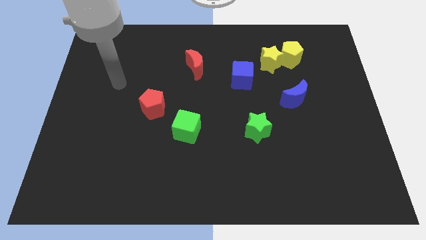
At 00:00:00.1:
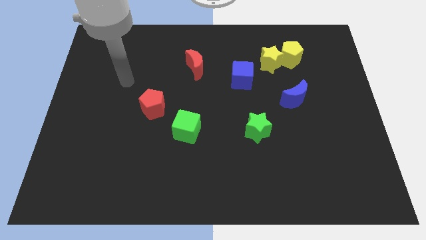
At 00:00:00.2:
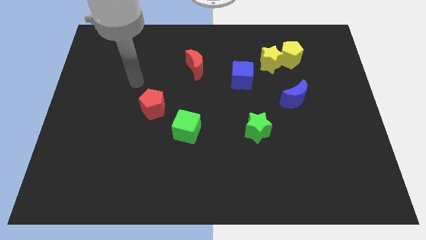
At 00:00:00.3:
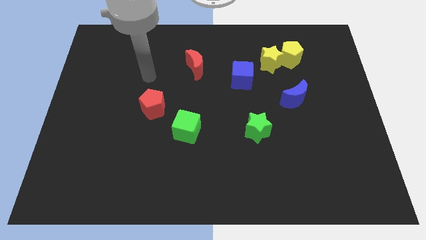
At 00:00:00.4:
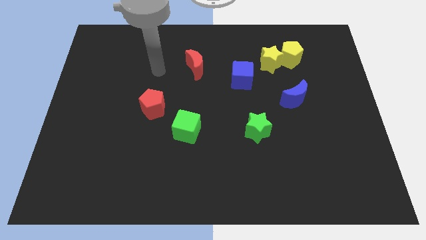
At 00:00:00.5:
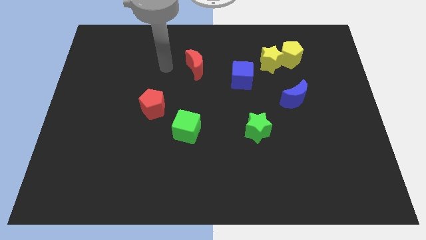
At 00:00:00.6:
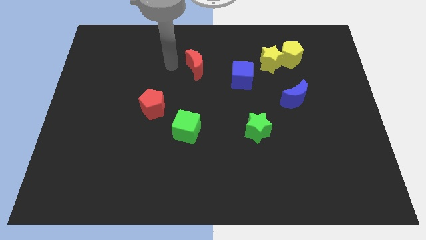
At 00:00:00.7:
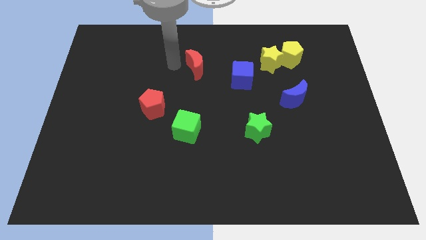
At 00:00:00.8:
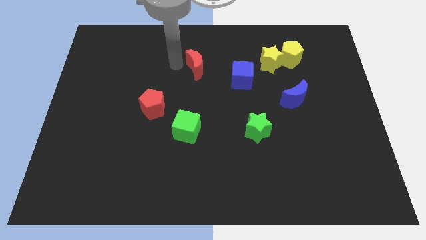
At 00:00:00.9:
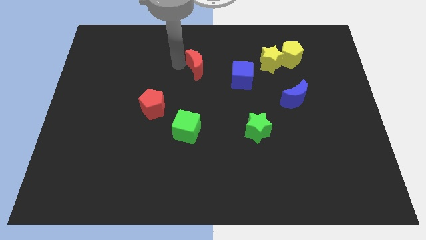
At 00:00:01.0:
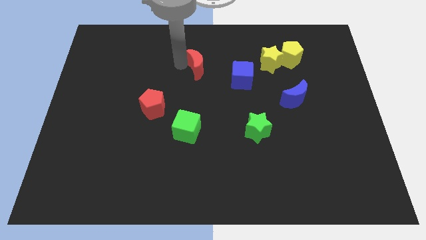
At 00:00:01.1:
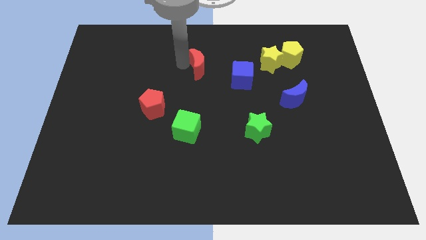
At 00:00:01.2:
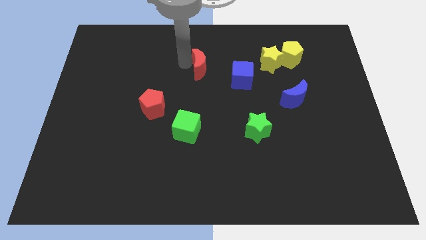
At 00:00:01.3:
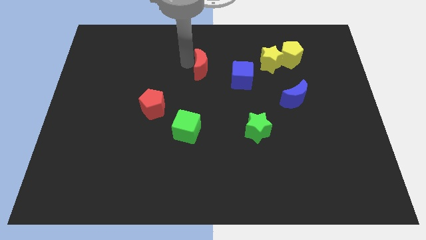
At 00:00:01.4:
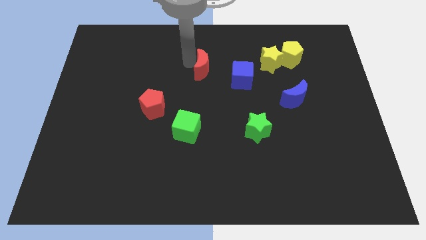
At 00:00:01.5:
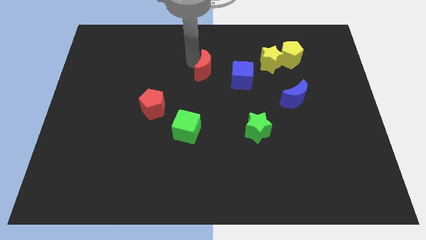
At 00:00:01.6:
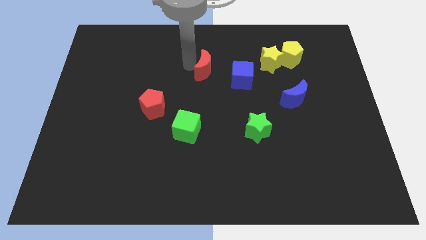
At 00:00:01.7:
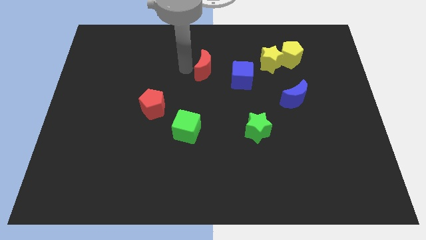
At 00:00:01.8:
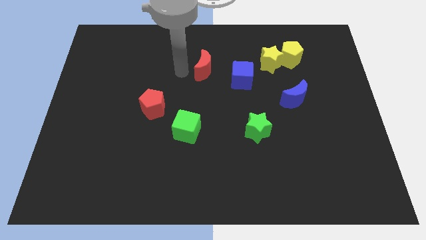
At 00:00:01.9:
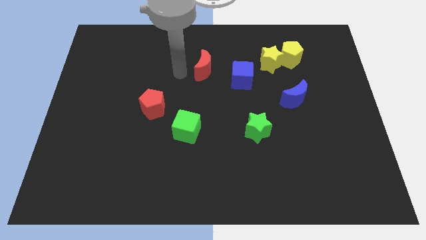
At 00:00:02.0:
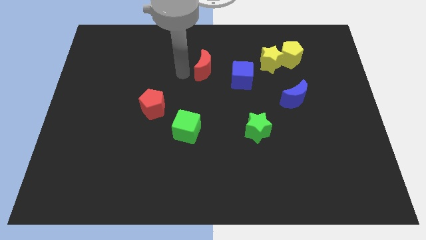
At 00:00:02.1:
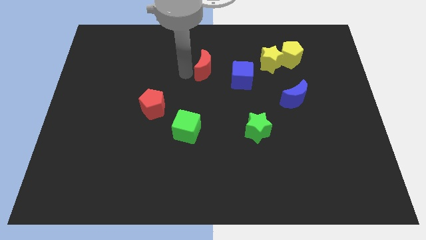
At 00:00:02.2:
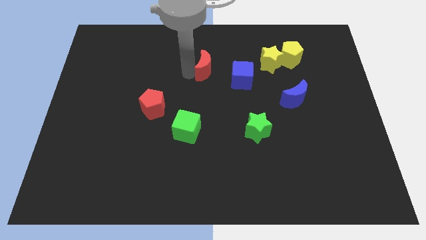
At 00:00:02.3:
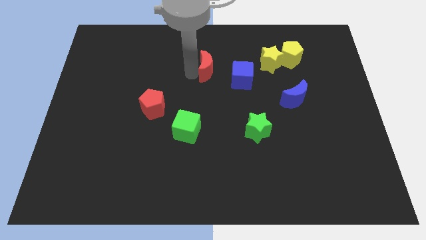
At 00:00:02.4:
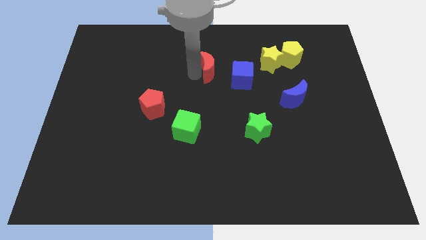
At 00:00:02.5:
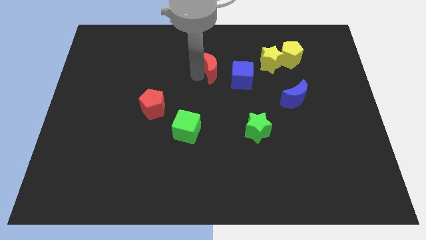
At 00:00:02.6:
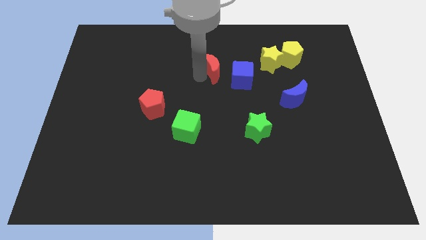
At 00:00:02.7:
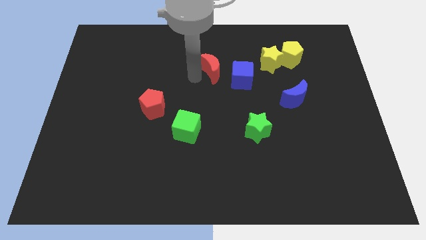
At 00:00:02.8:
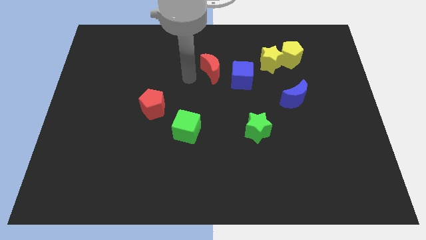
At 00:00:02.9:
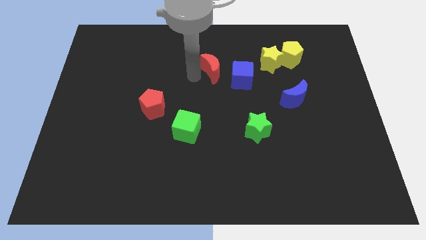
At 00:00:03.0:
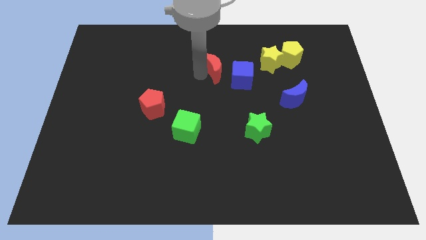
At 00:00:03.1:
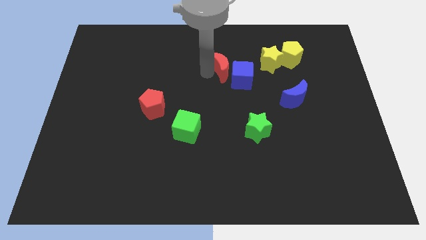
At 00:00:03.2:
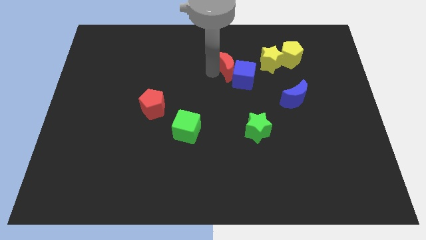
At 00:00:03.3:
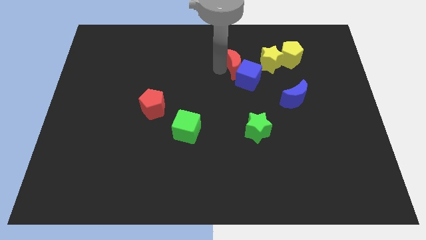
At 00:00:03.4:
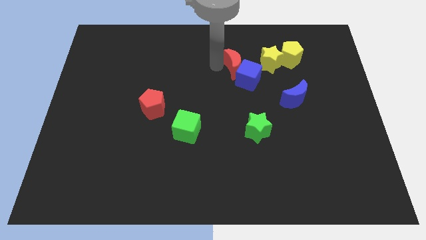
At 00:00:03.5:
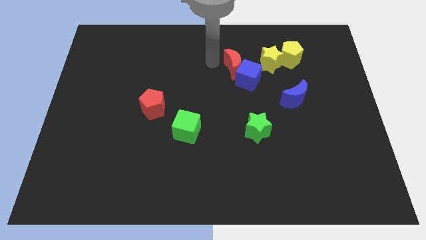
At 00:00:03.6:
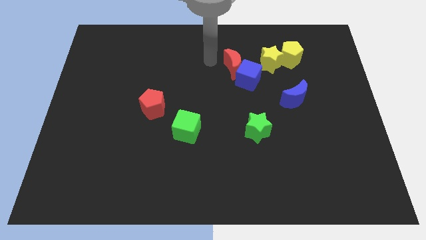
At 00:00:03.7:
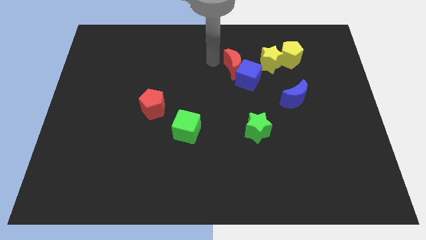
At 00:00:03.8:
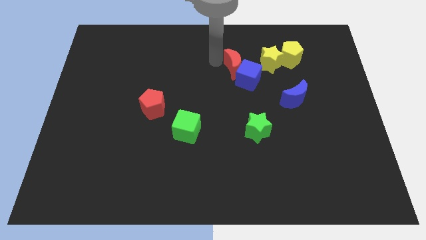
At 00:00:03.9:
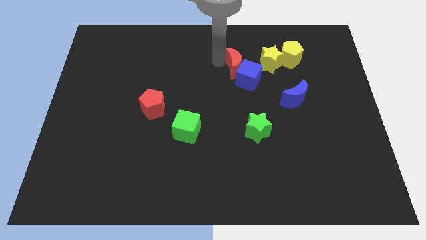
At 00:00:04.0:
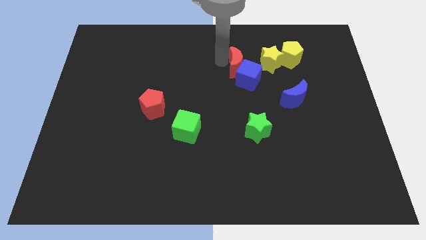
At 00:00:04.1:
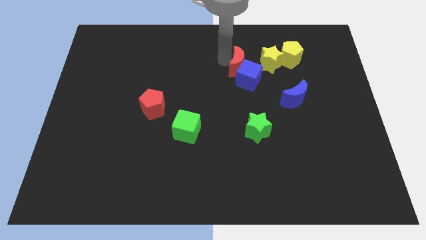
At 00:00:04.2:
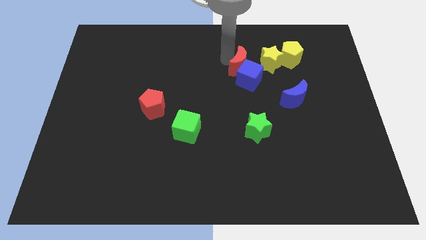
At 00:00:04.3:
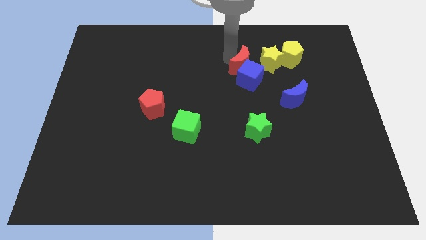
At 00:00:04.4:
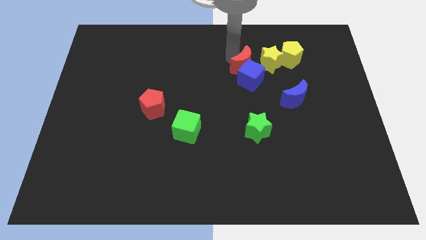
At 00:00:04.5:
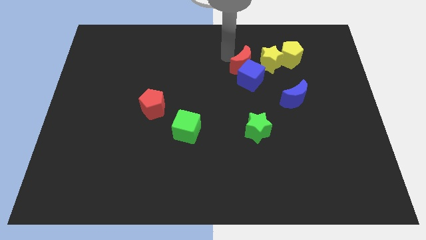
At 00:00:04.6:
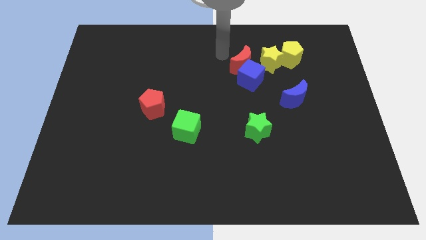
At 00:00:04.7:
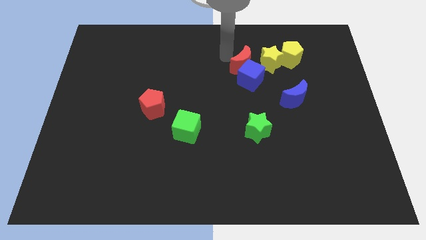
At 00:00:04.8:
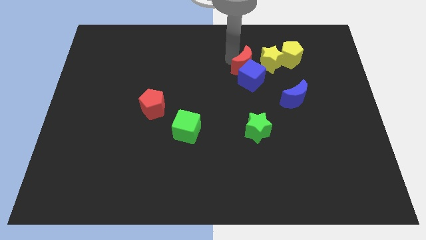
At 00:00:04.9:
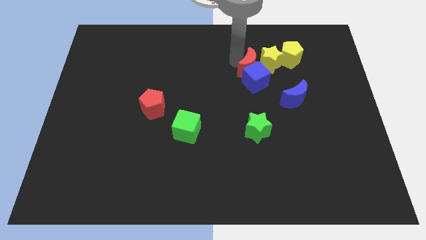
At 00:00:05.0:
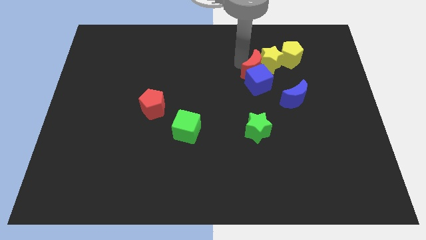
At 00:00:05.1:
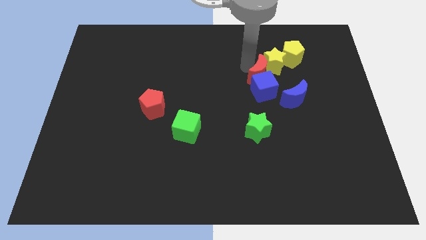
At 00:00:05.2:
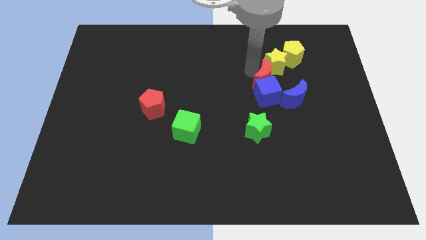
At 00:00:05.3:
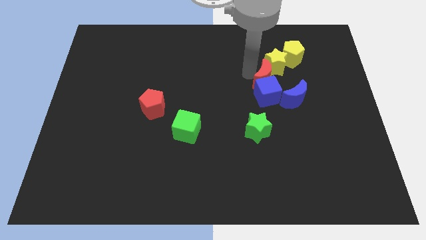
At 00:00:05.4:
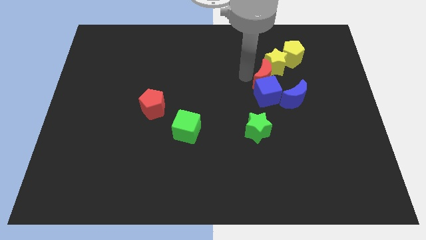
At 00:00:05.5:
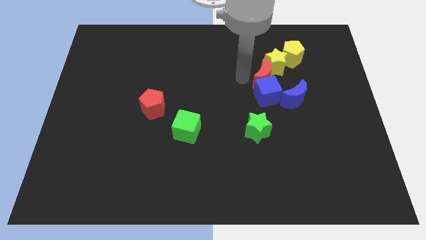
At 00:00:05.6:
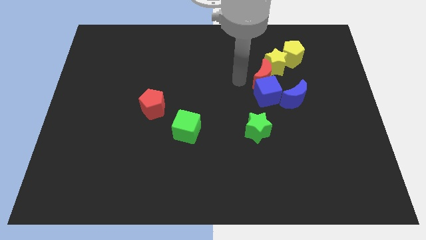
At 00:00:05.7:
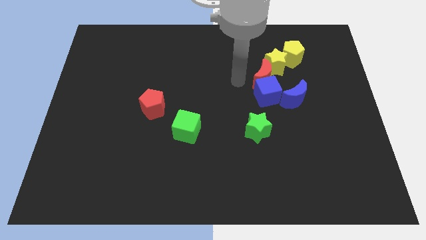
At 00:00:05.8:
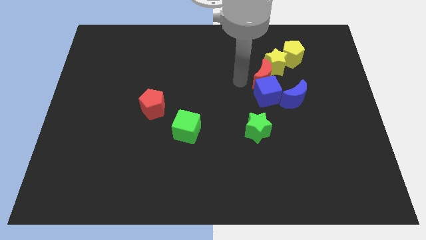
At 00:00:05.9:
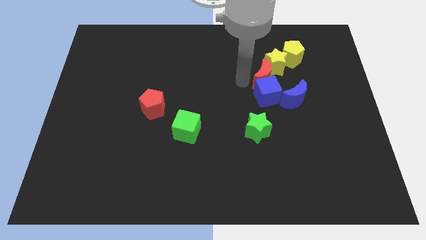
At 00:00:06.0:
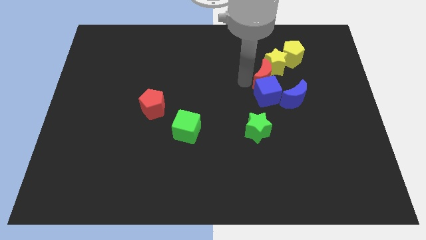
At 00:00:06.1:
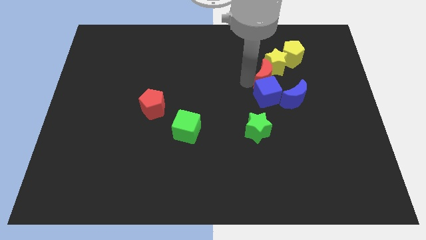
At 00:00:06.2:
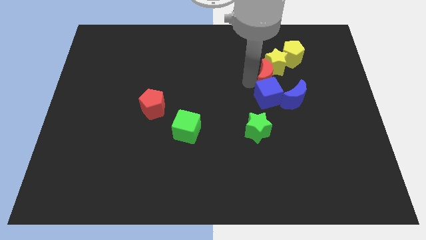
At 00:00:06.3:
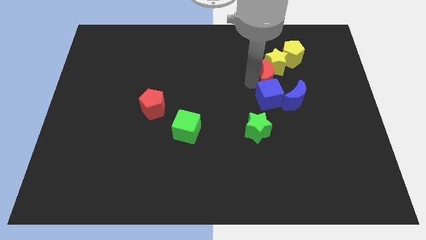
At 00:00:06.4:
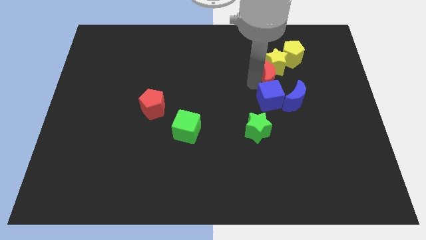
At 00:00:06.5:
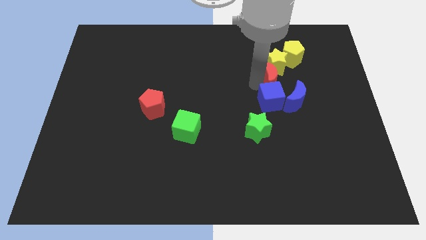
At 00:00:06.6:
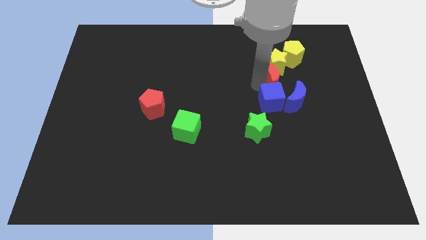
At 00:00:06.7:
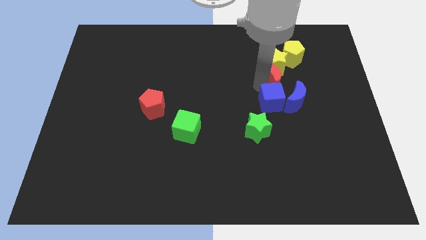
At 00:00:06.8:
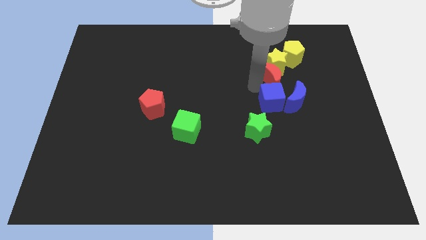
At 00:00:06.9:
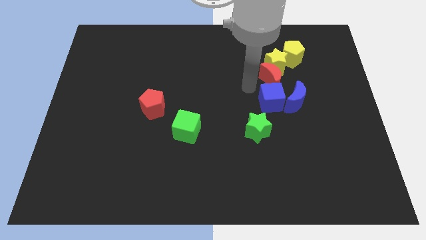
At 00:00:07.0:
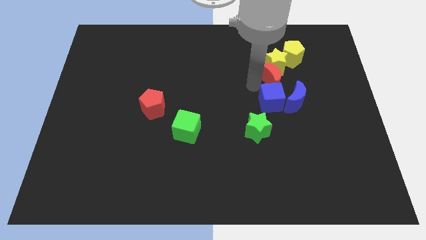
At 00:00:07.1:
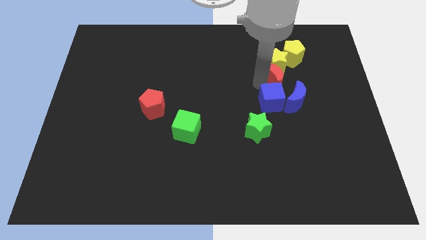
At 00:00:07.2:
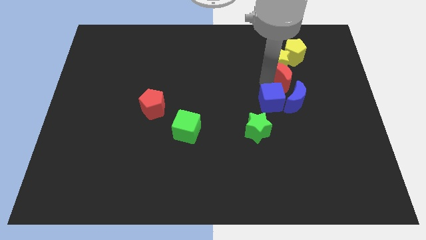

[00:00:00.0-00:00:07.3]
slide the red moon right

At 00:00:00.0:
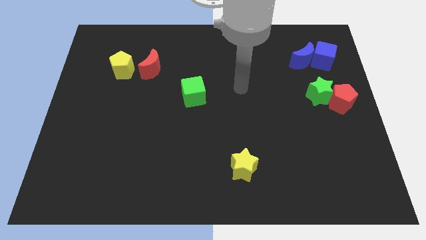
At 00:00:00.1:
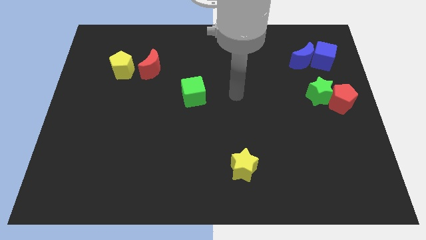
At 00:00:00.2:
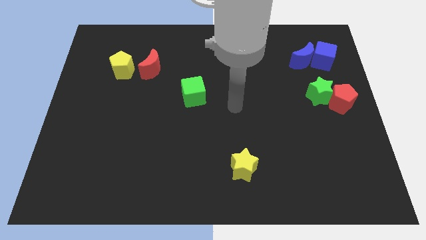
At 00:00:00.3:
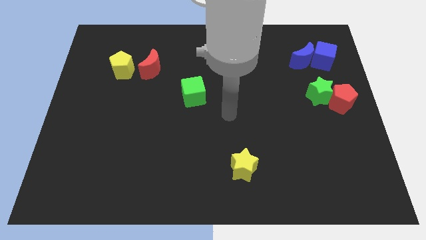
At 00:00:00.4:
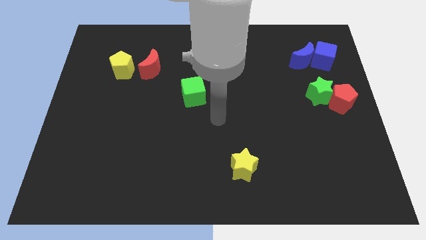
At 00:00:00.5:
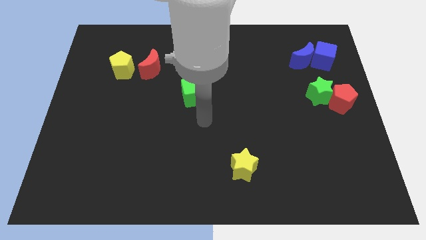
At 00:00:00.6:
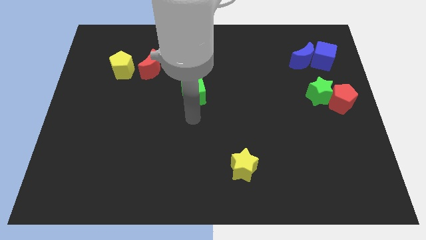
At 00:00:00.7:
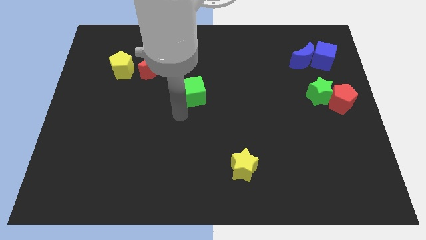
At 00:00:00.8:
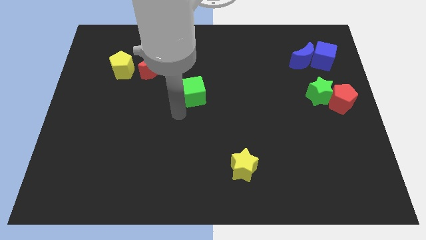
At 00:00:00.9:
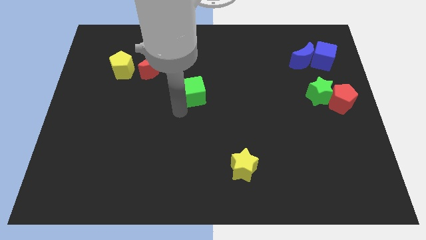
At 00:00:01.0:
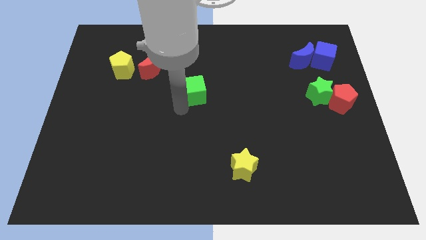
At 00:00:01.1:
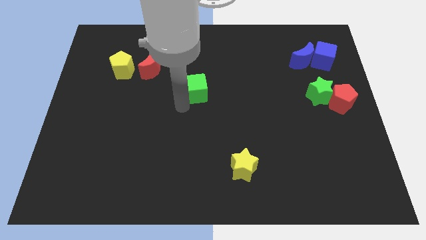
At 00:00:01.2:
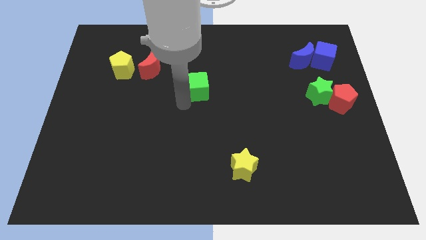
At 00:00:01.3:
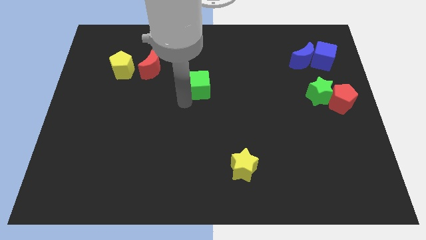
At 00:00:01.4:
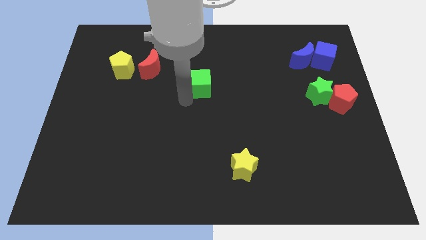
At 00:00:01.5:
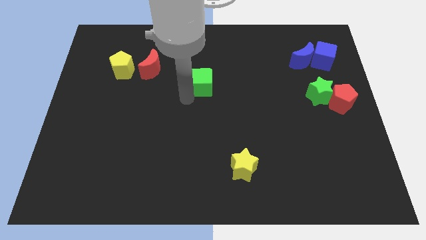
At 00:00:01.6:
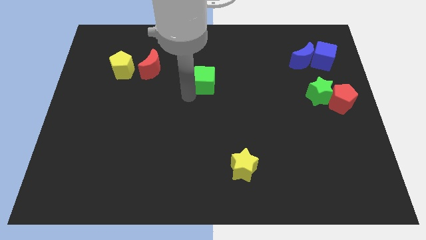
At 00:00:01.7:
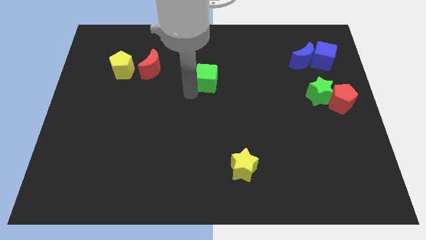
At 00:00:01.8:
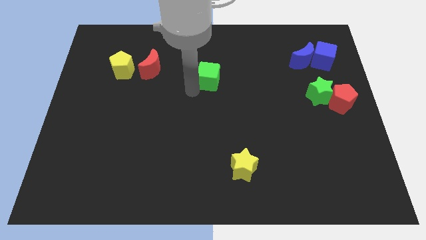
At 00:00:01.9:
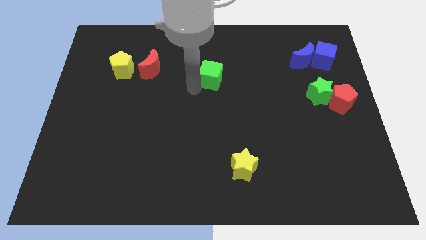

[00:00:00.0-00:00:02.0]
slide the green cube a little upwards and then right
